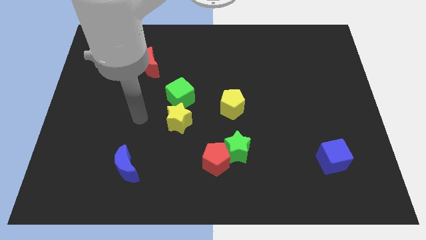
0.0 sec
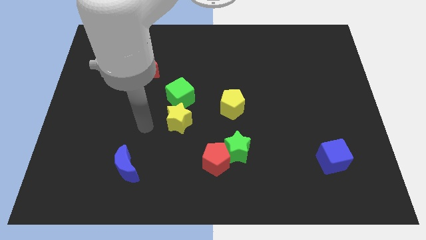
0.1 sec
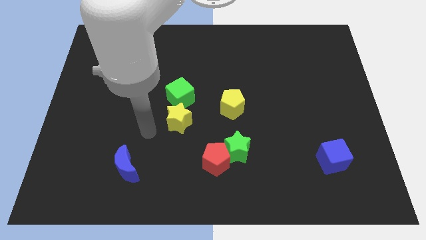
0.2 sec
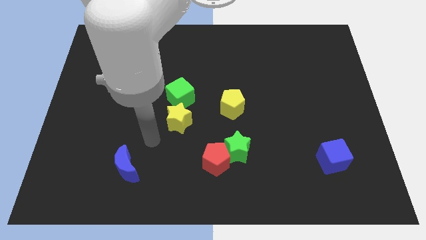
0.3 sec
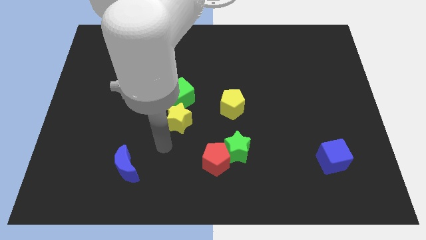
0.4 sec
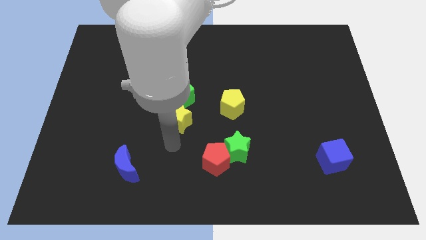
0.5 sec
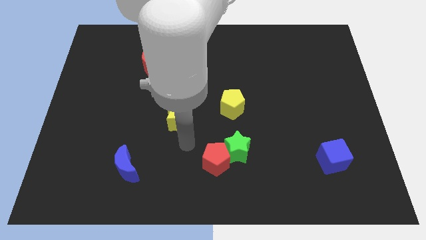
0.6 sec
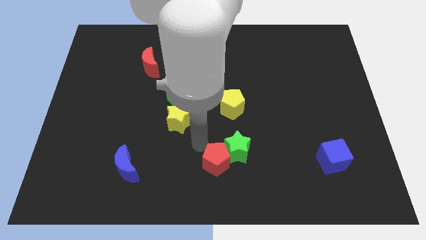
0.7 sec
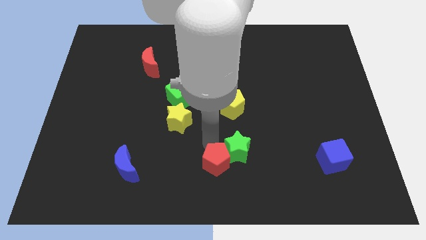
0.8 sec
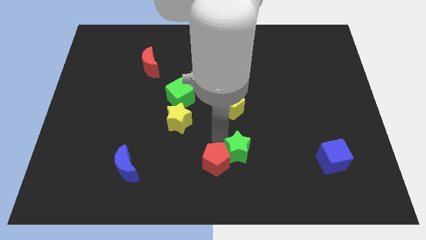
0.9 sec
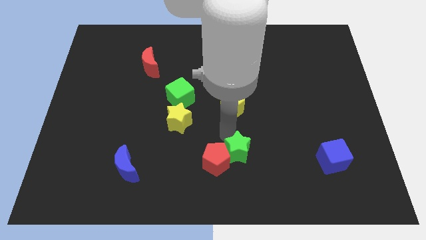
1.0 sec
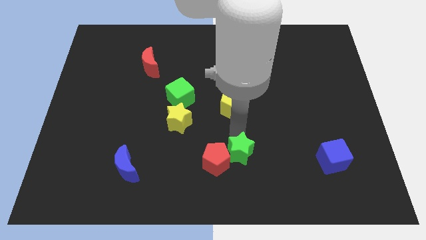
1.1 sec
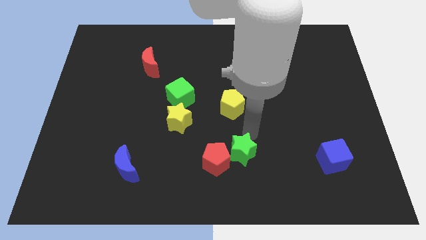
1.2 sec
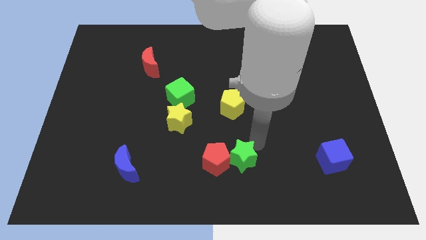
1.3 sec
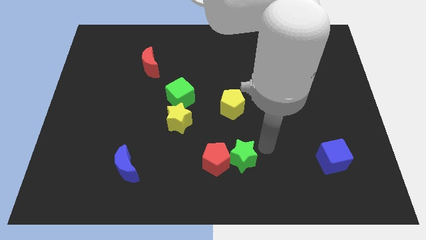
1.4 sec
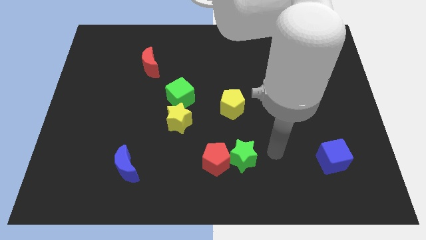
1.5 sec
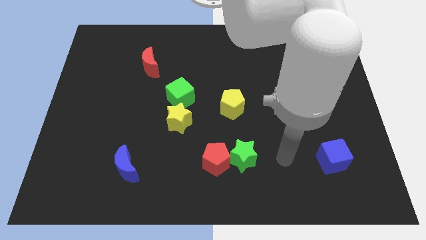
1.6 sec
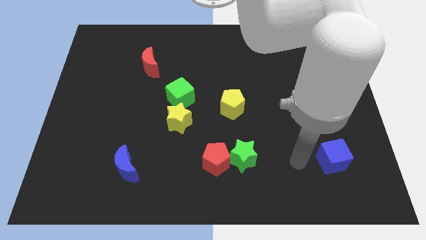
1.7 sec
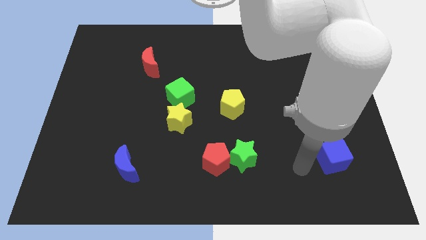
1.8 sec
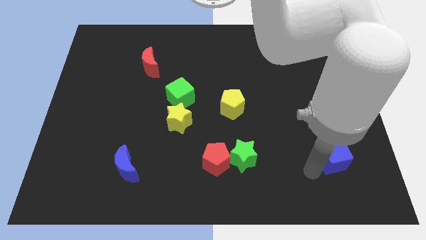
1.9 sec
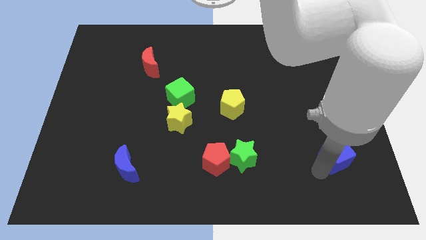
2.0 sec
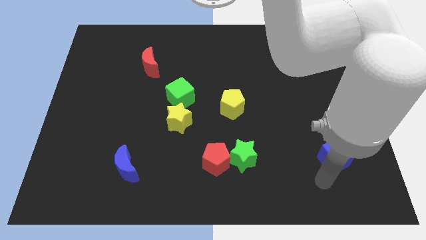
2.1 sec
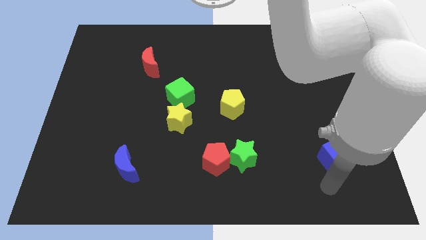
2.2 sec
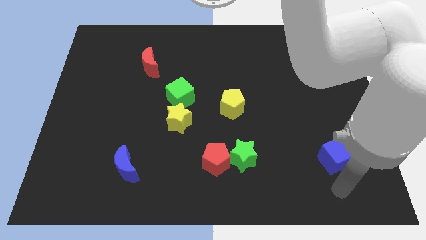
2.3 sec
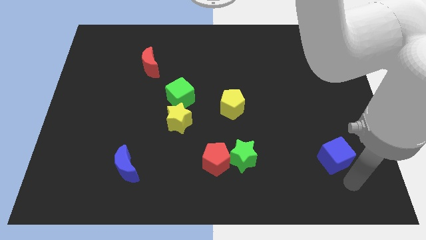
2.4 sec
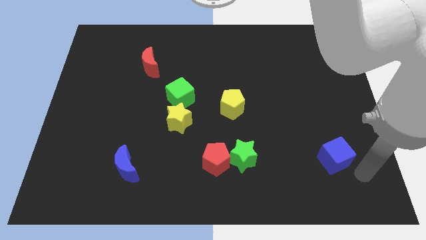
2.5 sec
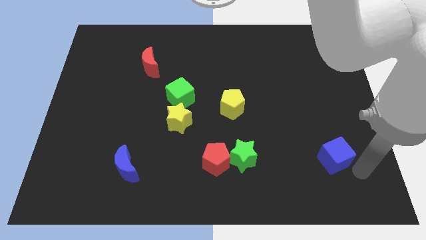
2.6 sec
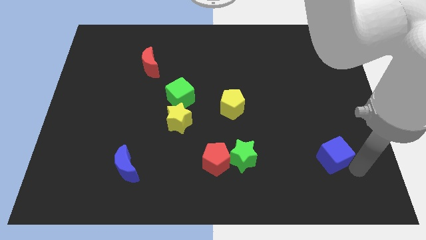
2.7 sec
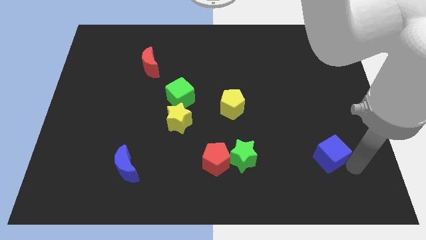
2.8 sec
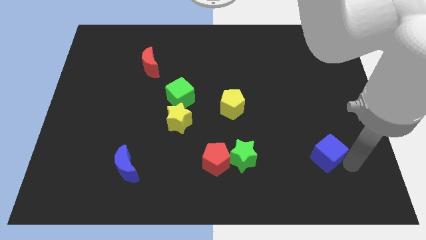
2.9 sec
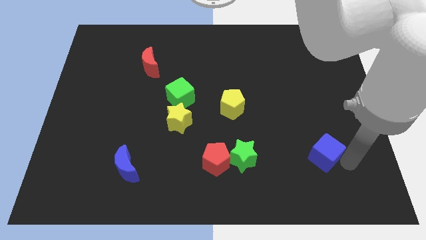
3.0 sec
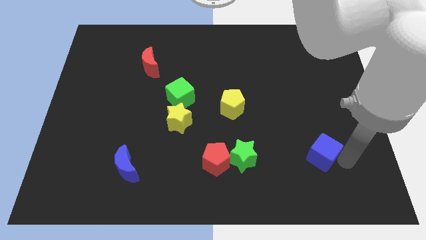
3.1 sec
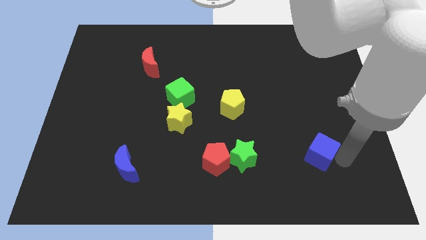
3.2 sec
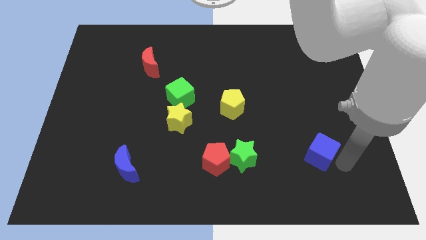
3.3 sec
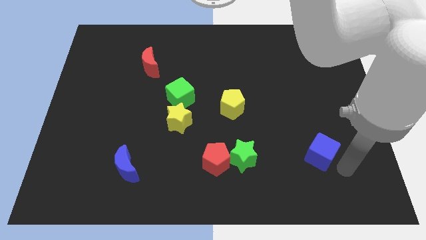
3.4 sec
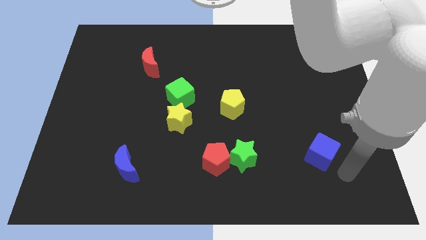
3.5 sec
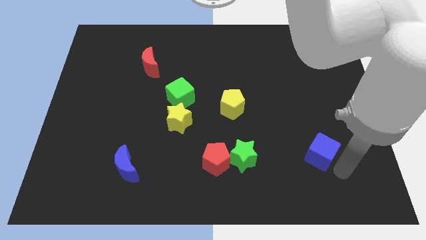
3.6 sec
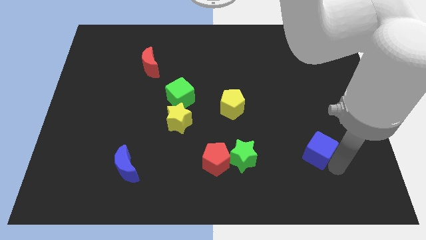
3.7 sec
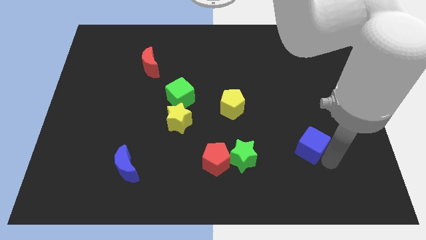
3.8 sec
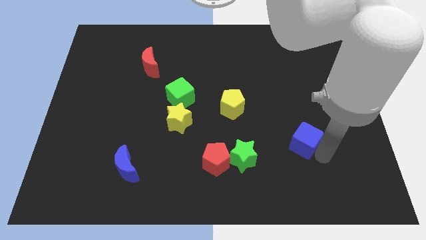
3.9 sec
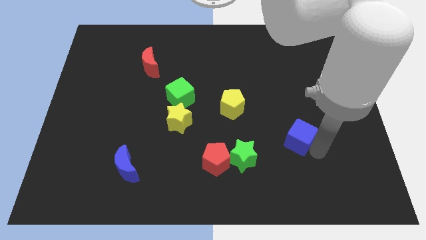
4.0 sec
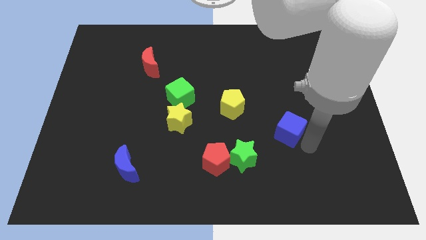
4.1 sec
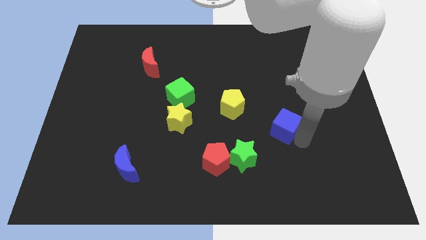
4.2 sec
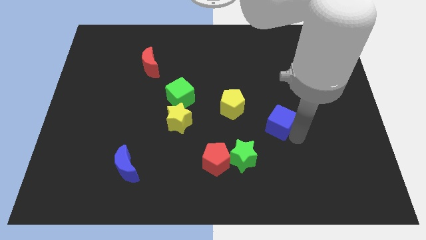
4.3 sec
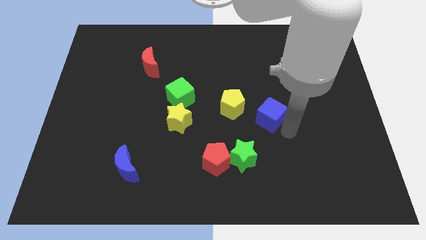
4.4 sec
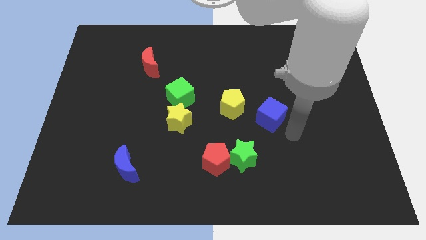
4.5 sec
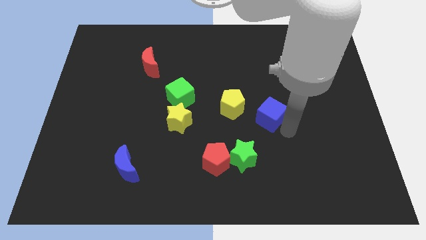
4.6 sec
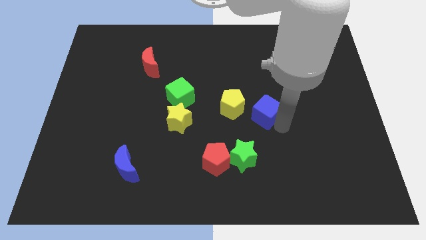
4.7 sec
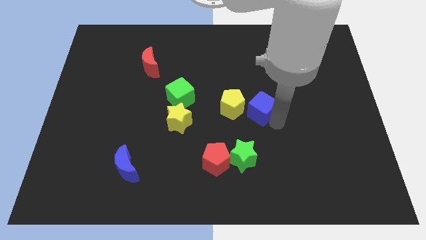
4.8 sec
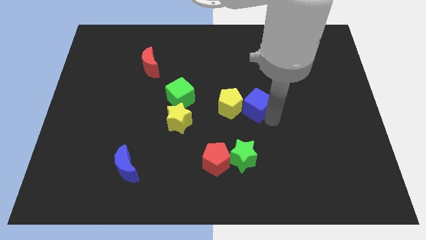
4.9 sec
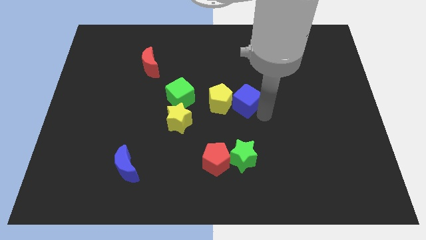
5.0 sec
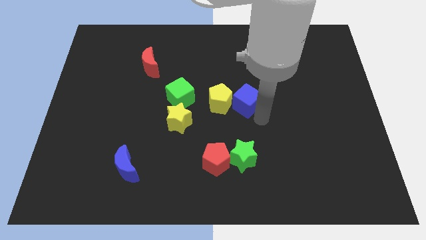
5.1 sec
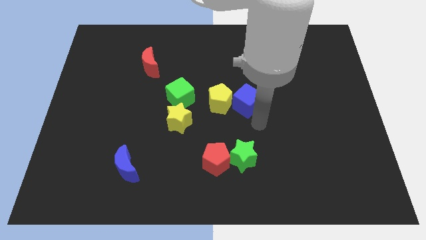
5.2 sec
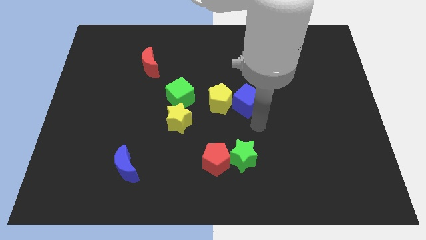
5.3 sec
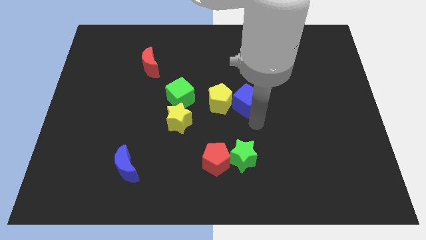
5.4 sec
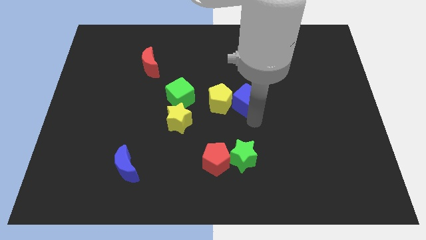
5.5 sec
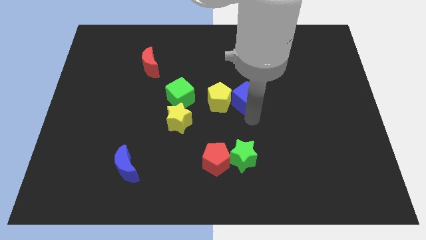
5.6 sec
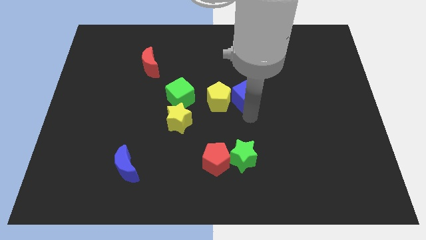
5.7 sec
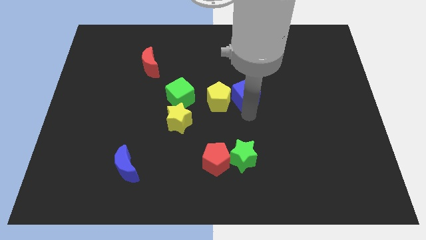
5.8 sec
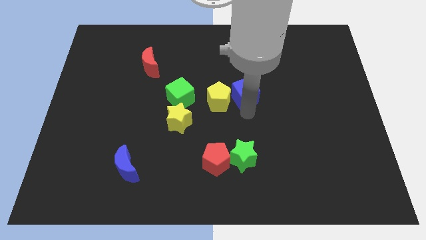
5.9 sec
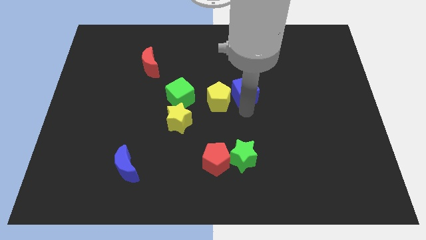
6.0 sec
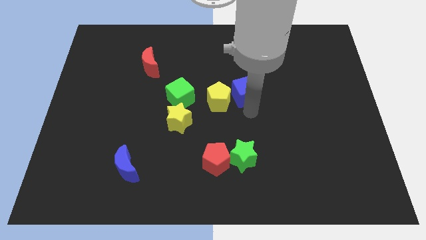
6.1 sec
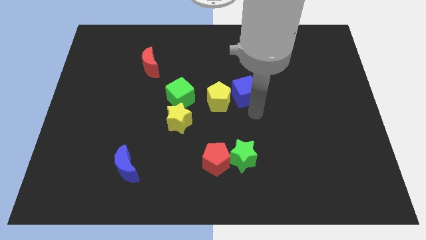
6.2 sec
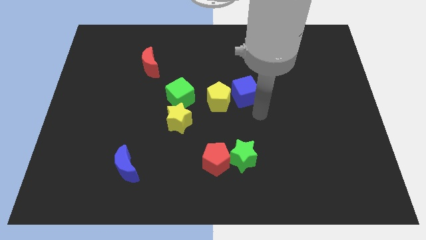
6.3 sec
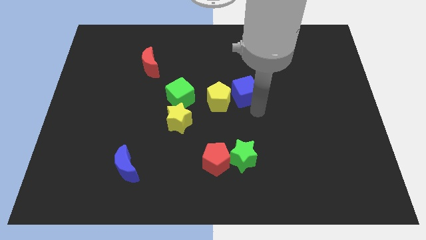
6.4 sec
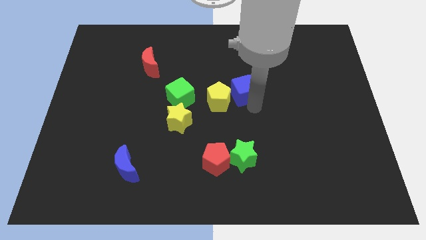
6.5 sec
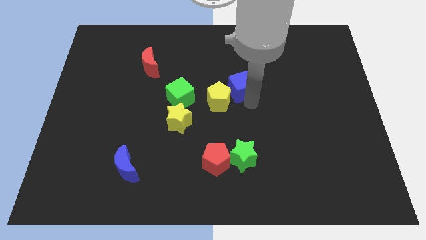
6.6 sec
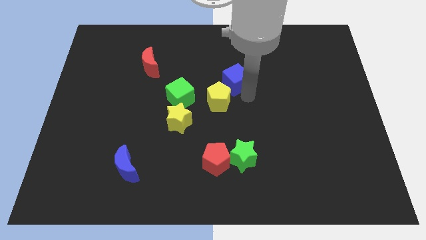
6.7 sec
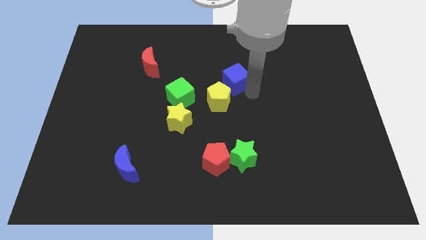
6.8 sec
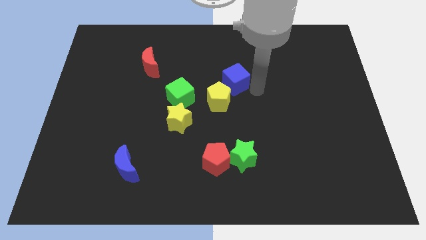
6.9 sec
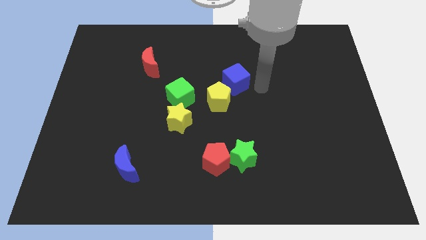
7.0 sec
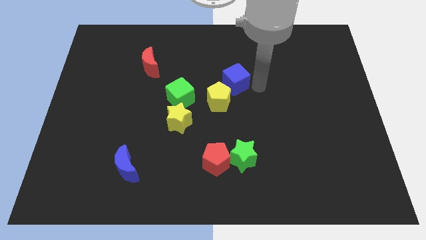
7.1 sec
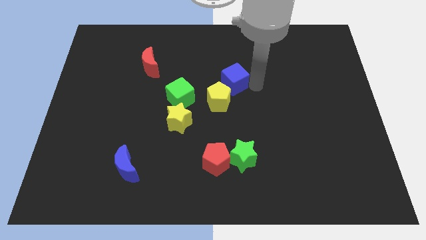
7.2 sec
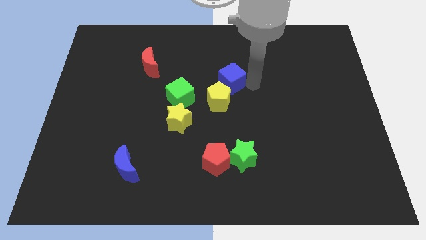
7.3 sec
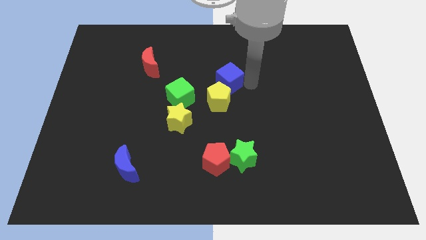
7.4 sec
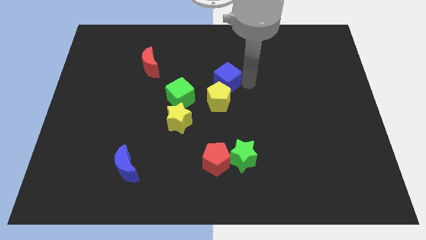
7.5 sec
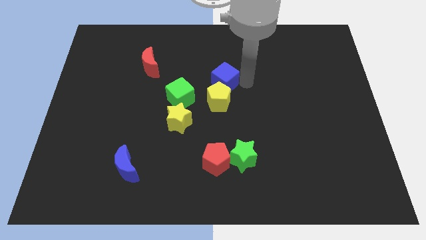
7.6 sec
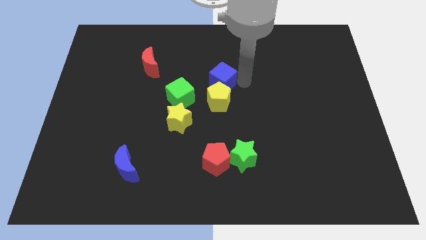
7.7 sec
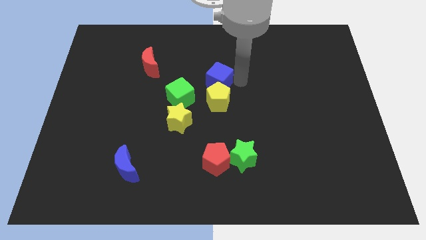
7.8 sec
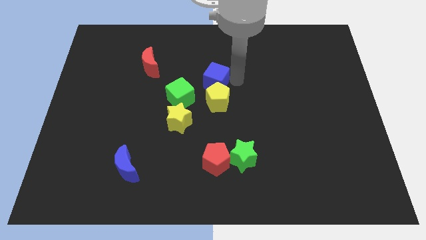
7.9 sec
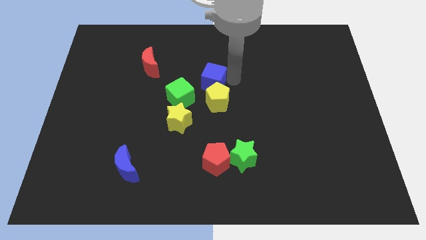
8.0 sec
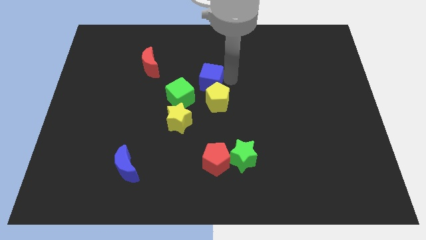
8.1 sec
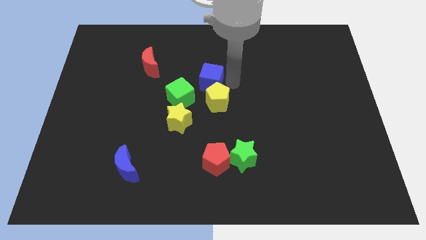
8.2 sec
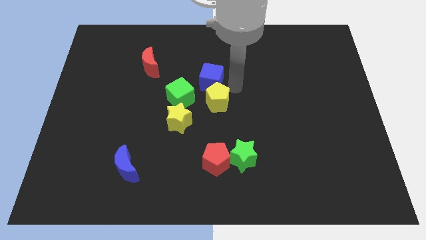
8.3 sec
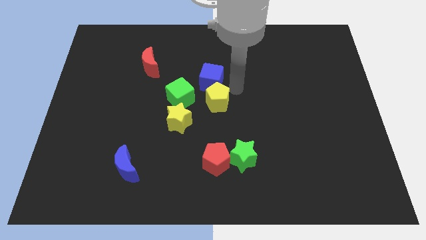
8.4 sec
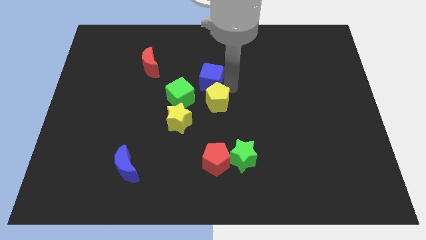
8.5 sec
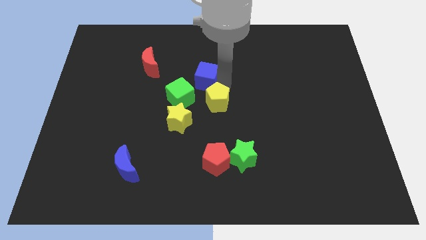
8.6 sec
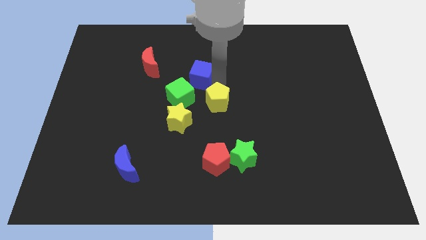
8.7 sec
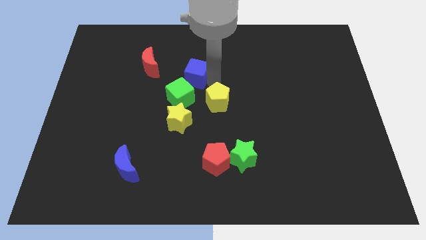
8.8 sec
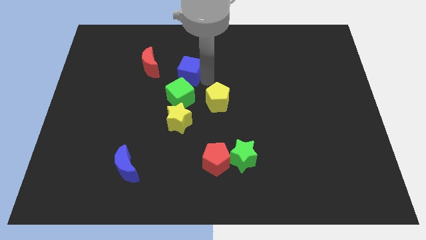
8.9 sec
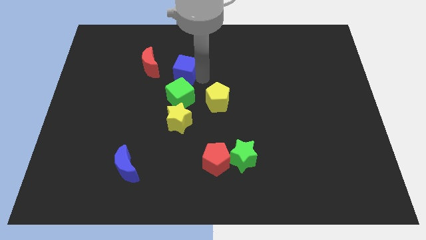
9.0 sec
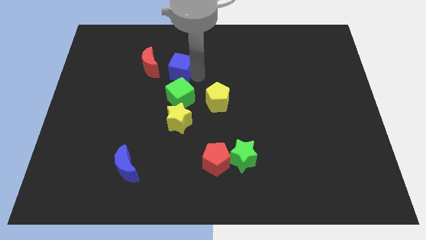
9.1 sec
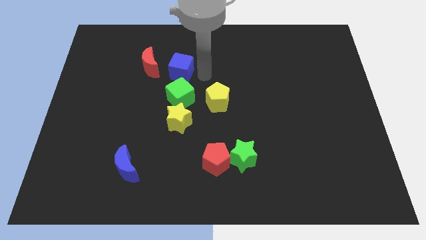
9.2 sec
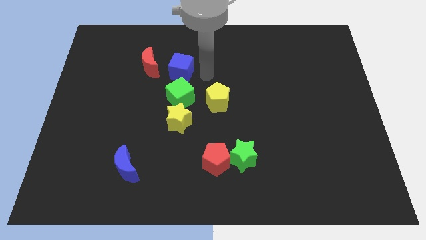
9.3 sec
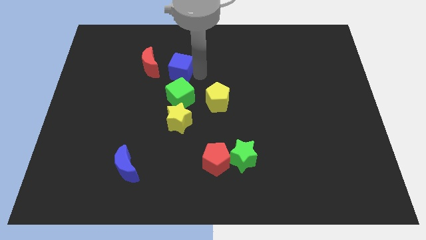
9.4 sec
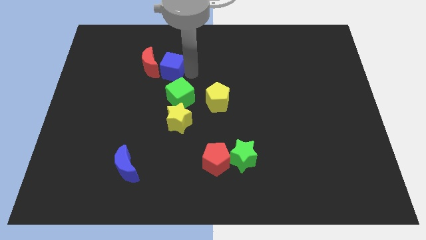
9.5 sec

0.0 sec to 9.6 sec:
put the blue cube to the red moon
